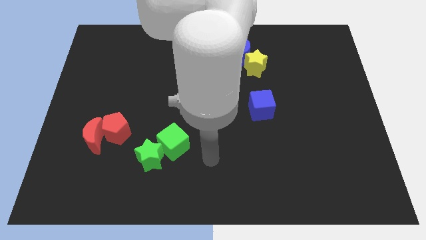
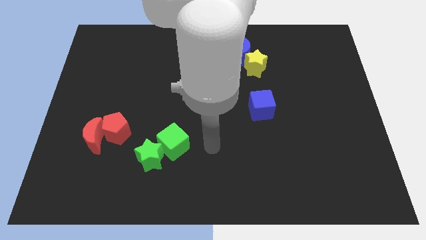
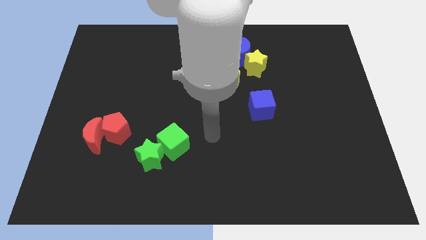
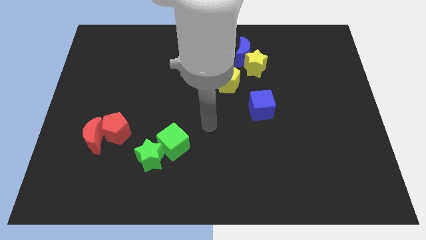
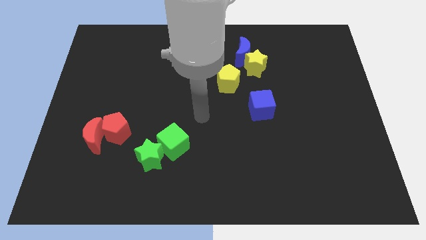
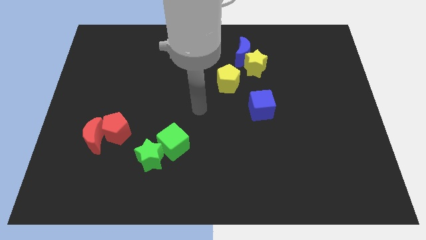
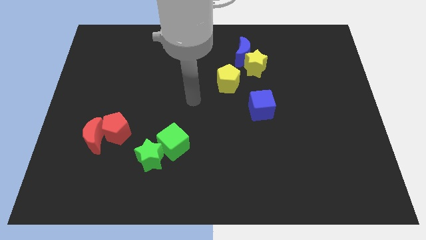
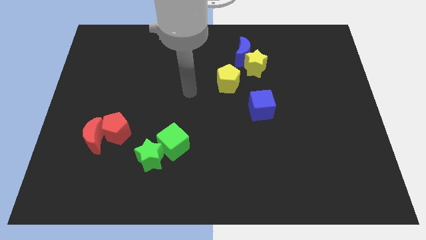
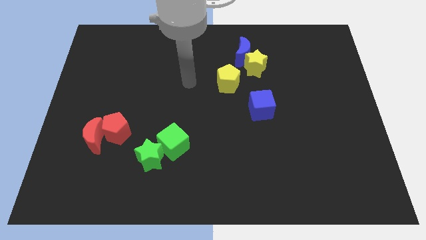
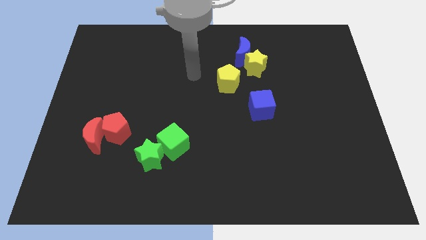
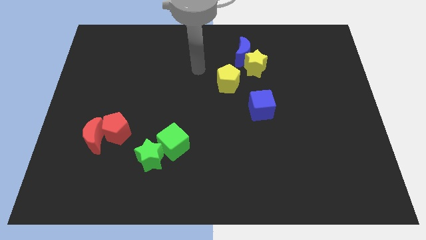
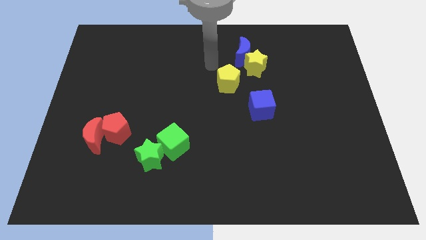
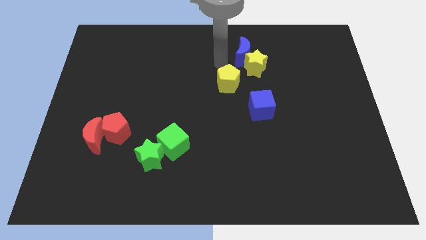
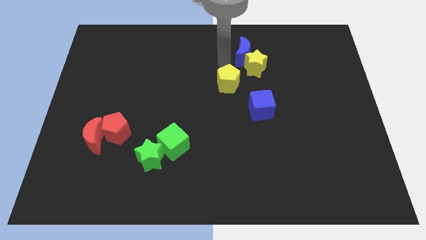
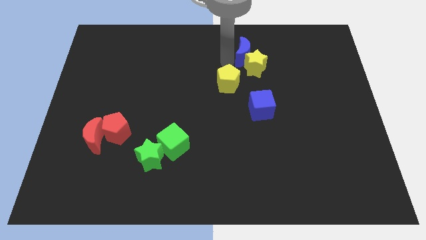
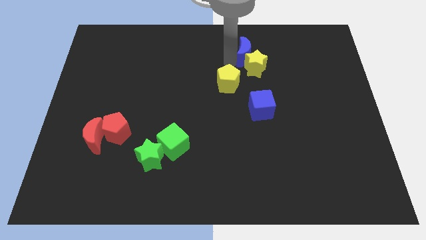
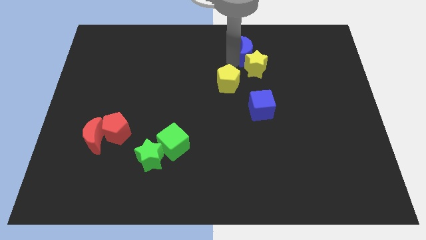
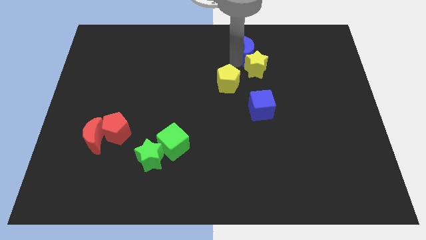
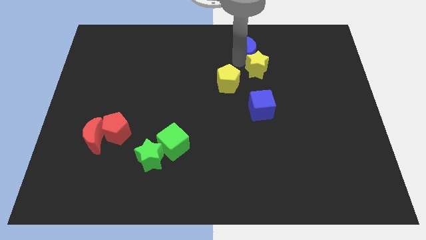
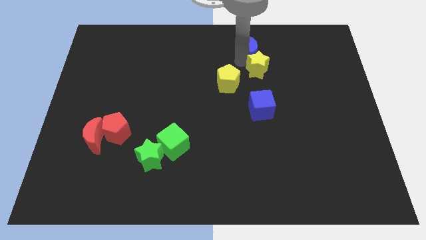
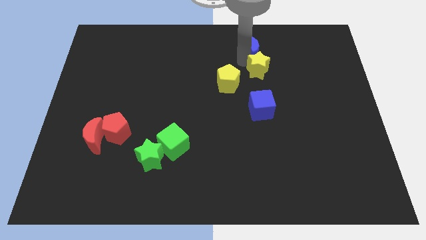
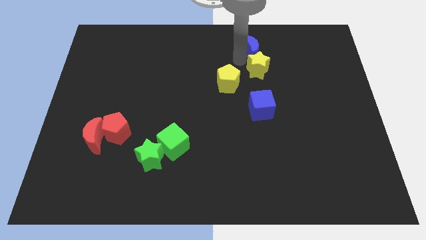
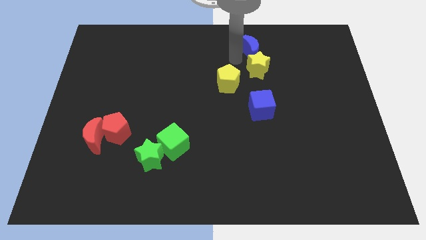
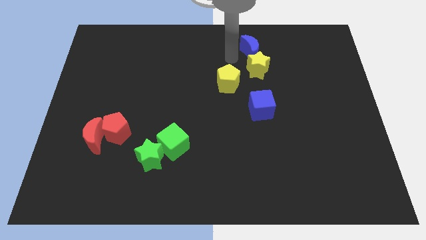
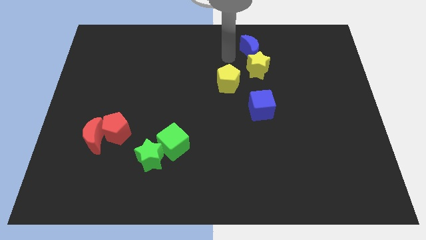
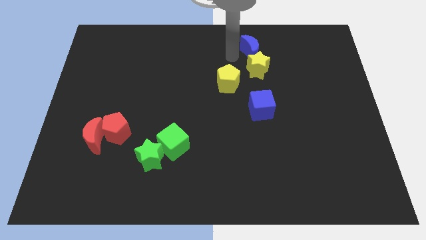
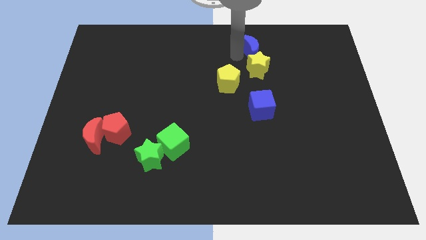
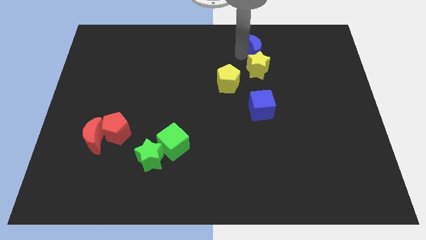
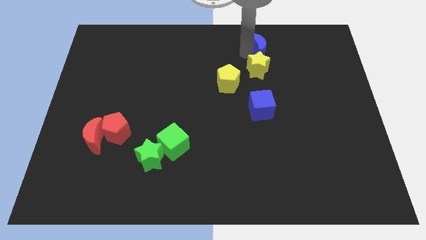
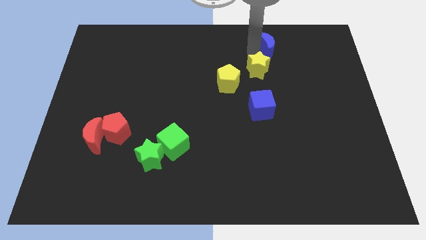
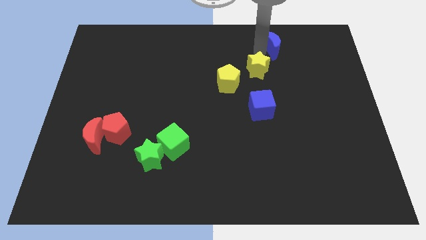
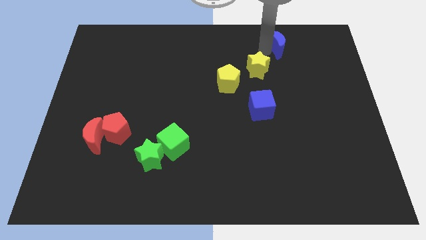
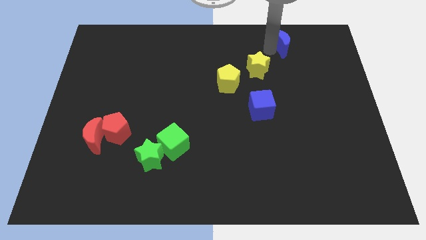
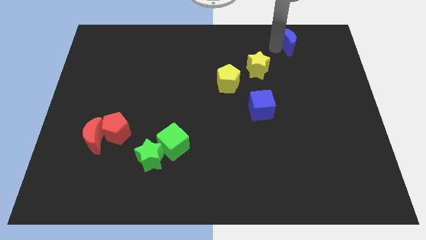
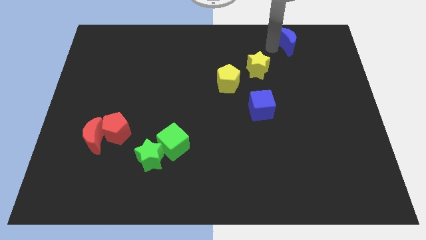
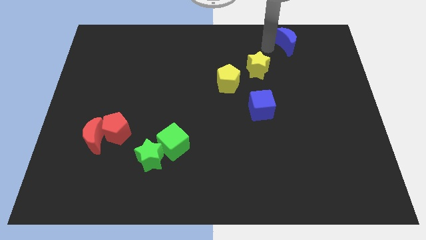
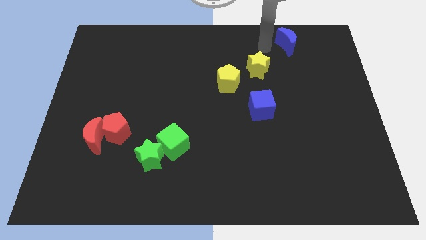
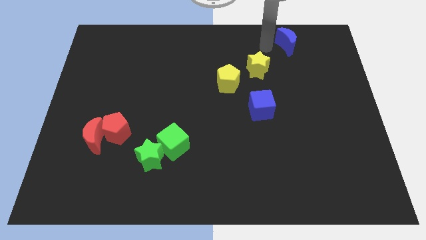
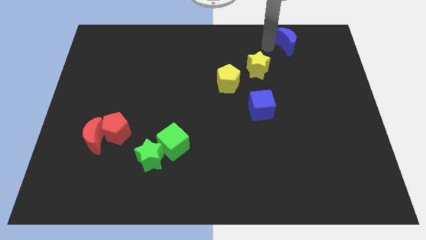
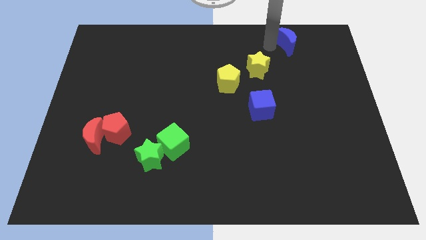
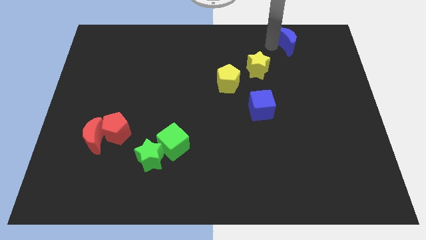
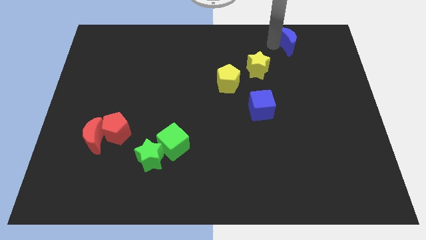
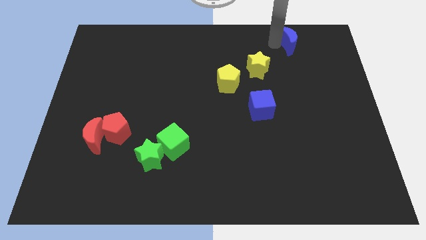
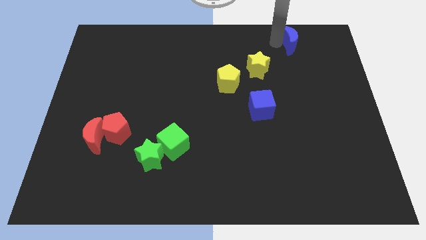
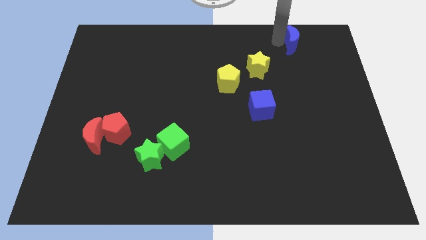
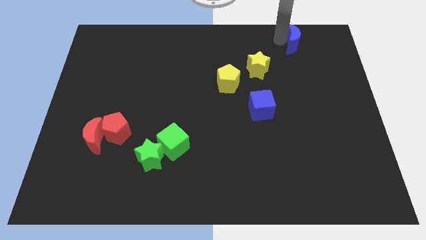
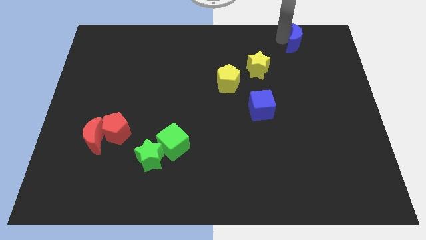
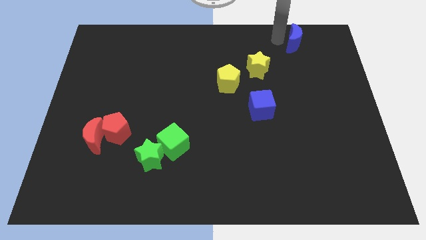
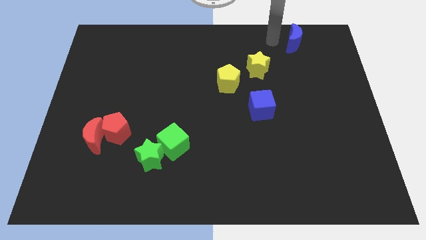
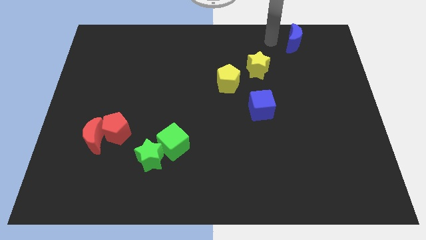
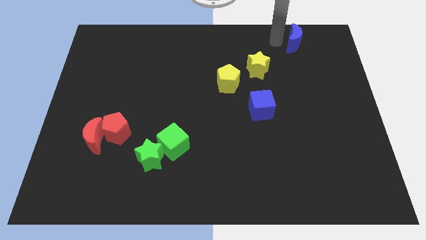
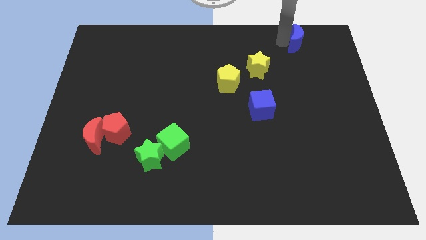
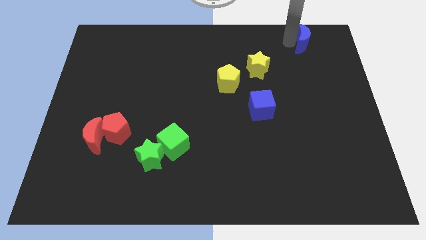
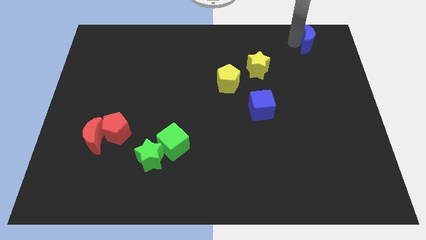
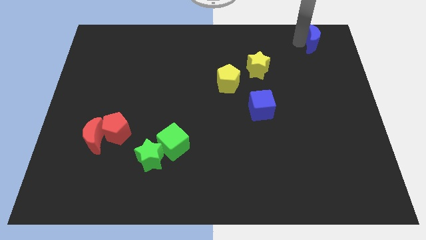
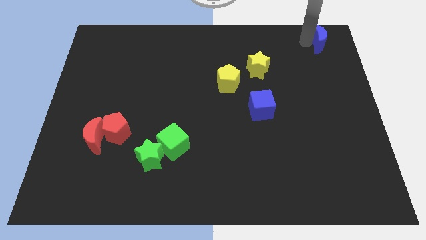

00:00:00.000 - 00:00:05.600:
push the blue moon to the top right

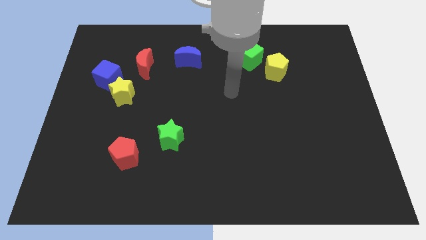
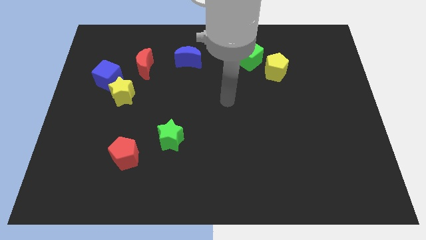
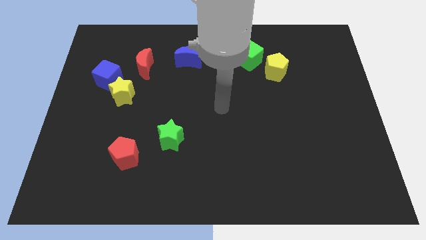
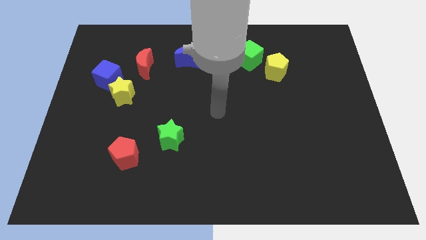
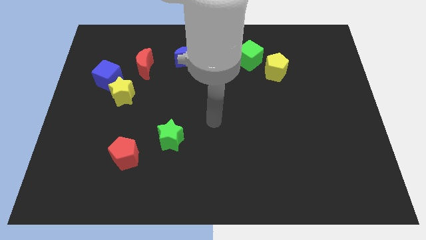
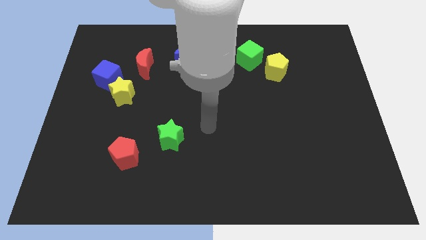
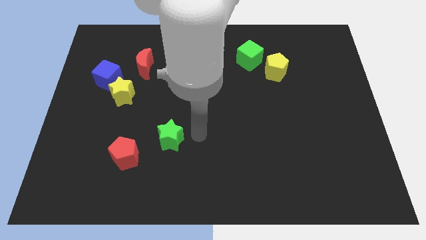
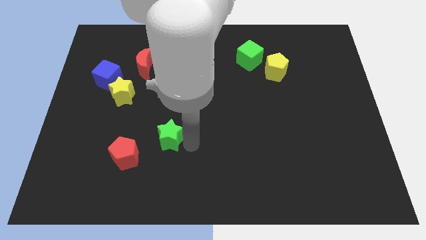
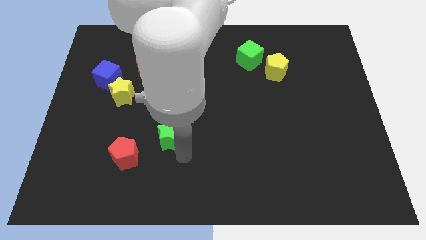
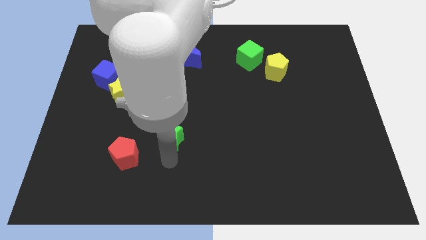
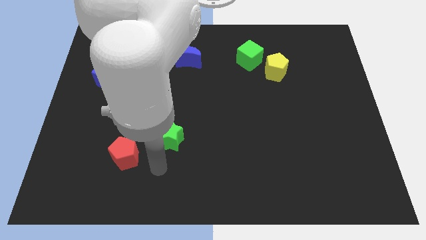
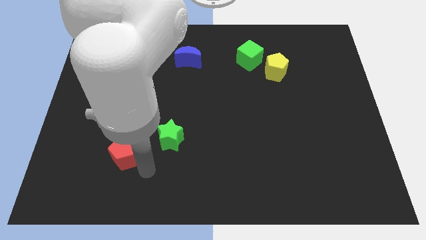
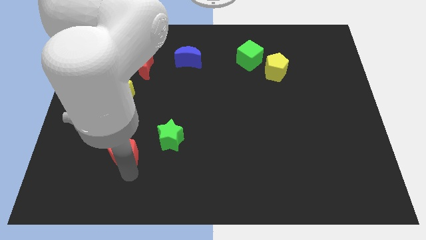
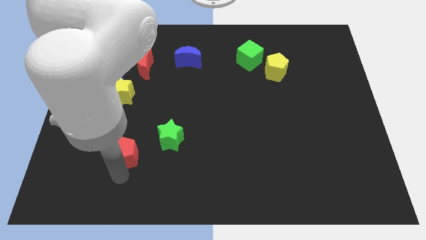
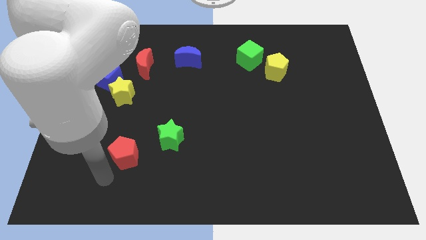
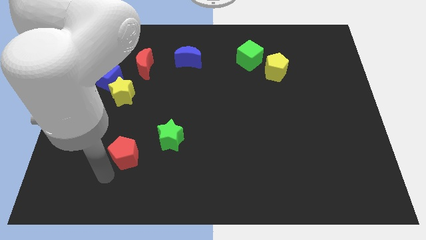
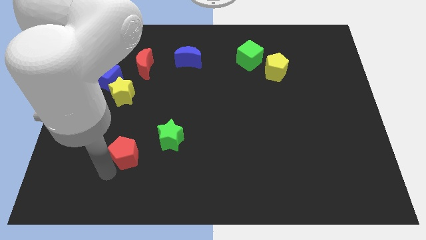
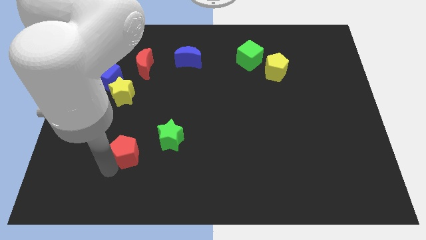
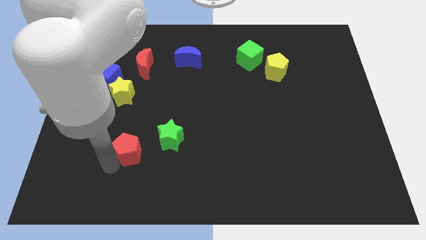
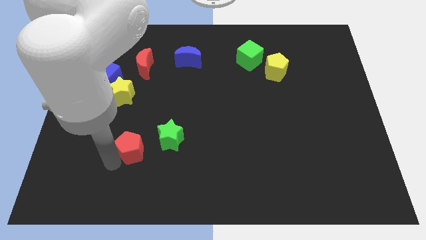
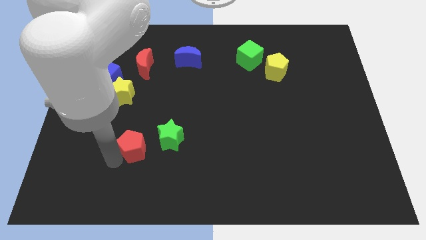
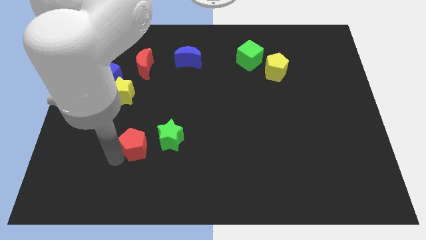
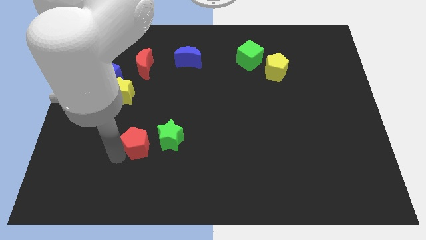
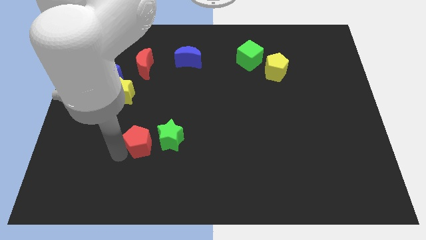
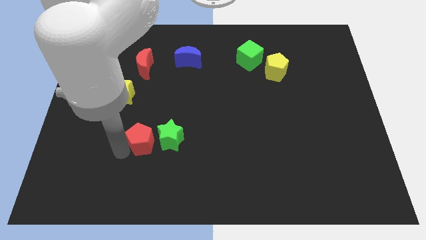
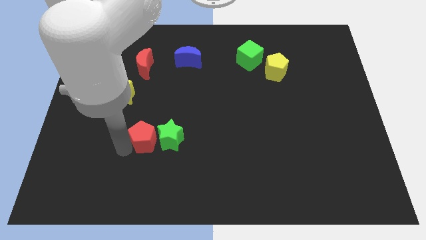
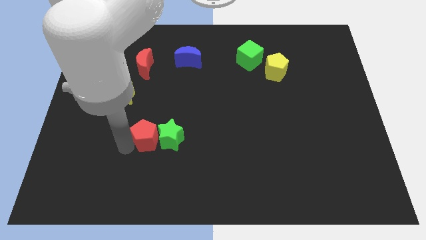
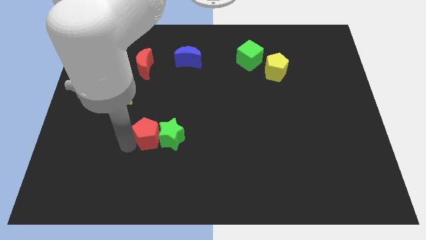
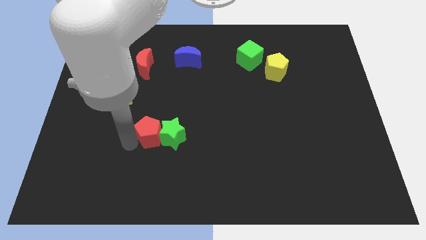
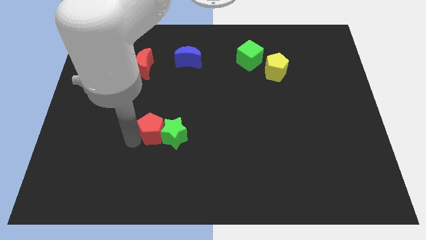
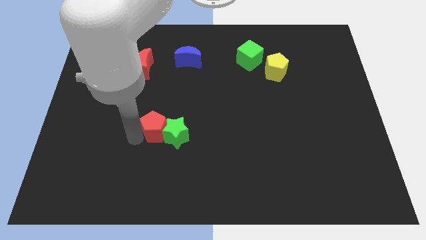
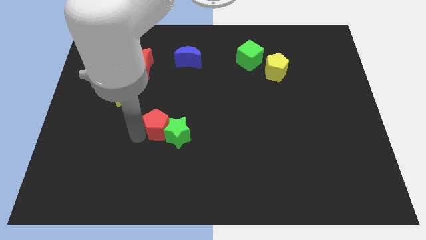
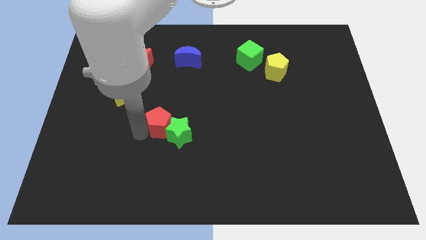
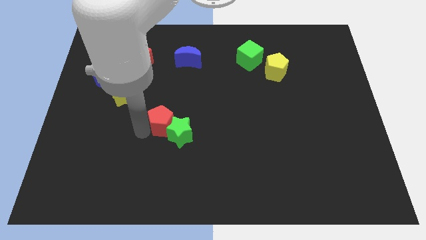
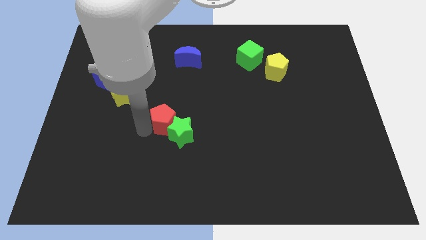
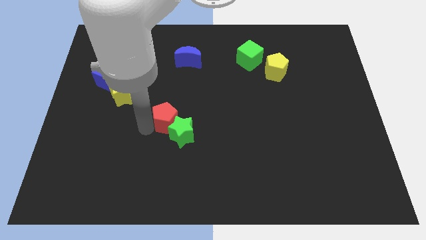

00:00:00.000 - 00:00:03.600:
put the red pentagon to the middle of the board
